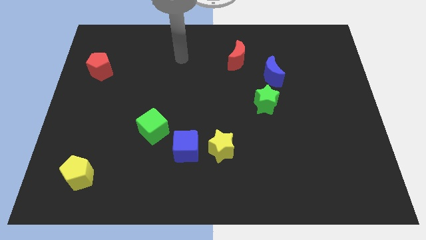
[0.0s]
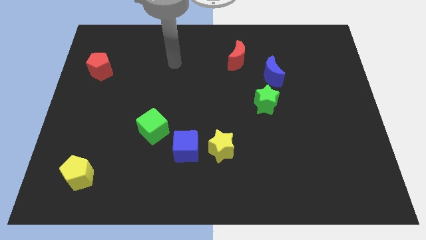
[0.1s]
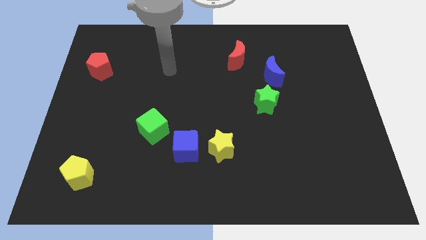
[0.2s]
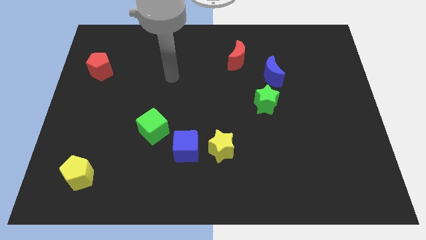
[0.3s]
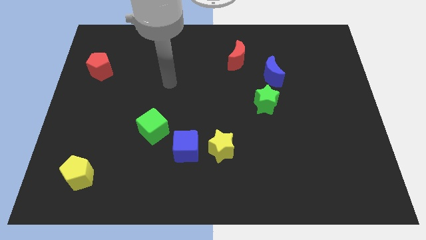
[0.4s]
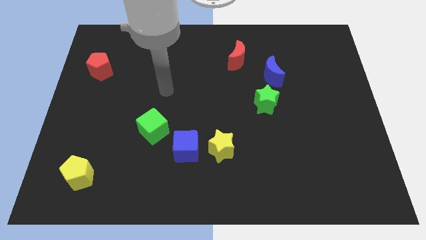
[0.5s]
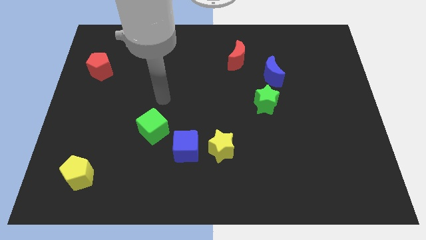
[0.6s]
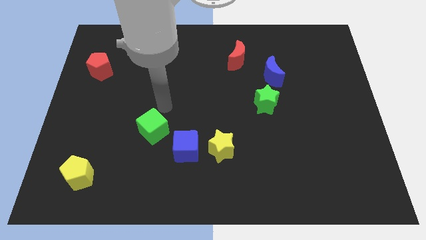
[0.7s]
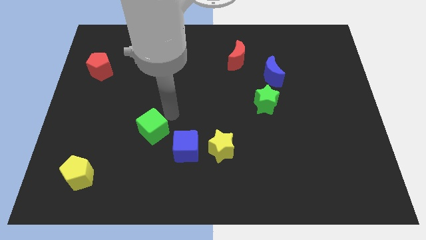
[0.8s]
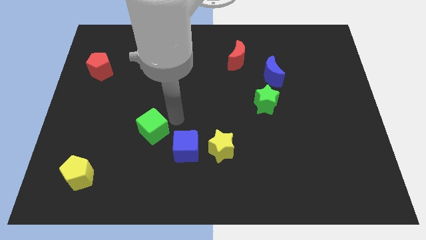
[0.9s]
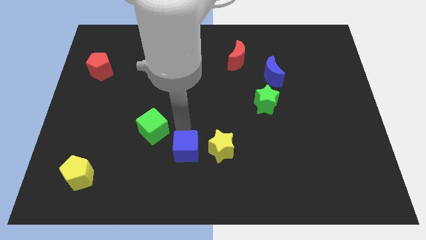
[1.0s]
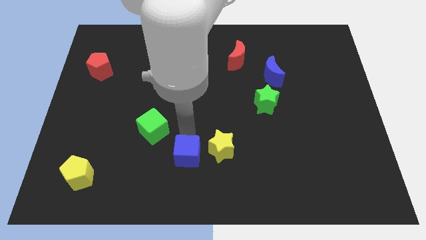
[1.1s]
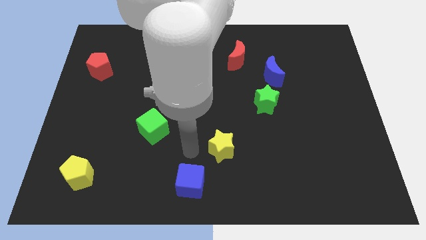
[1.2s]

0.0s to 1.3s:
separate the yellow star from the blue cube

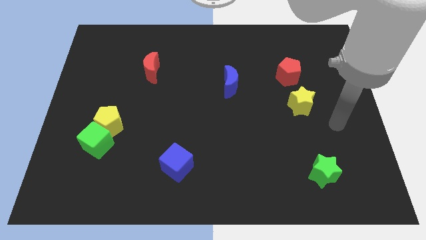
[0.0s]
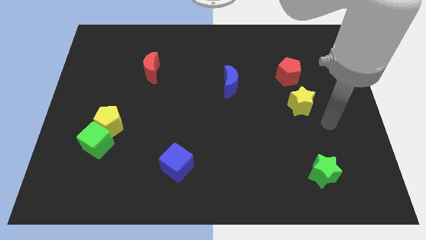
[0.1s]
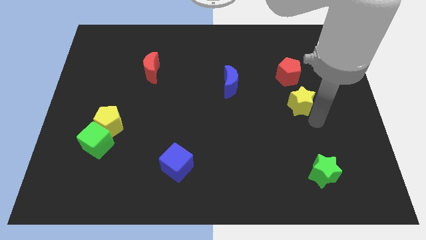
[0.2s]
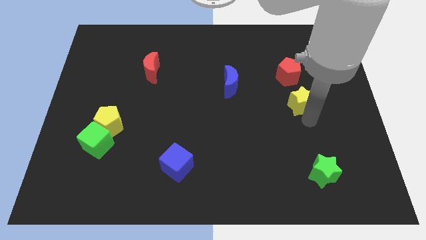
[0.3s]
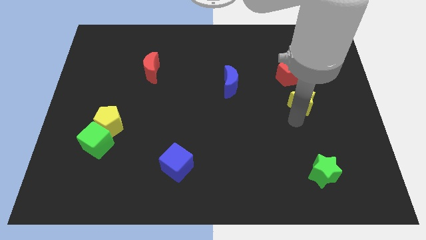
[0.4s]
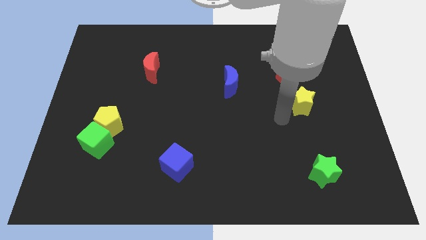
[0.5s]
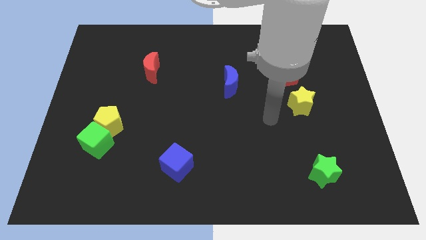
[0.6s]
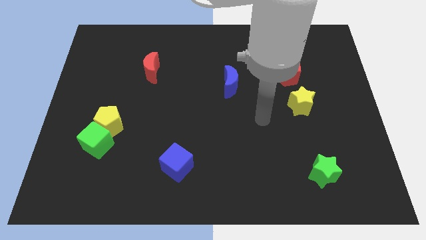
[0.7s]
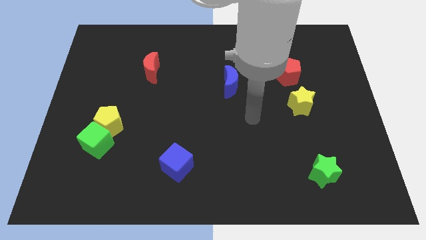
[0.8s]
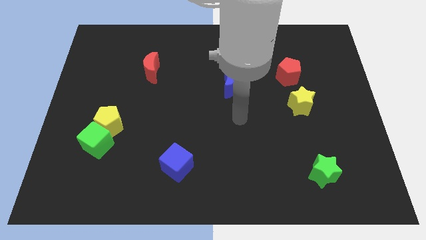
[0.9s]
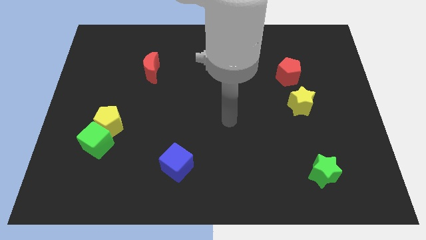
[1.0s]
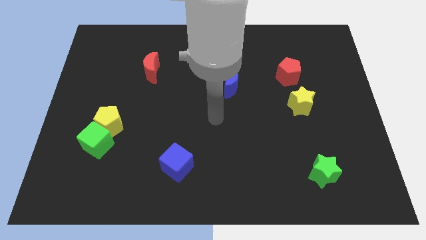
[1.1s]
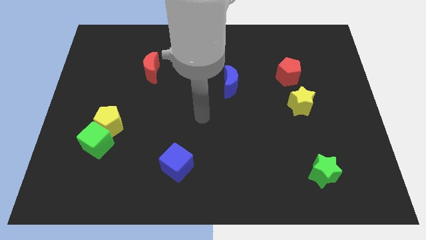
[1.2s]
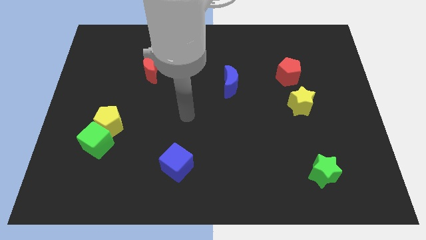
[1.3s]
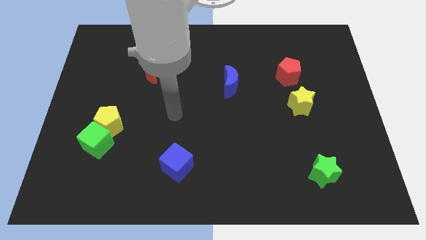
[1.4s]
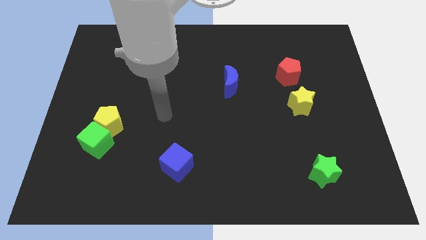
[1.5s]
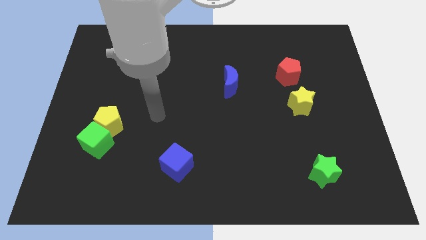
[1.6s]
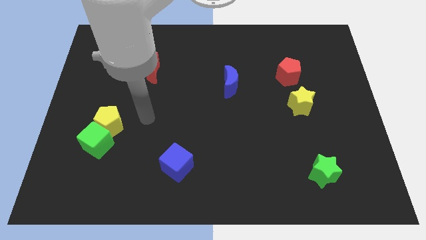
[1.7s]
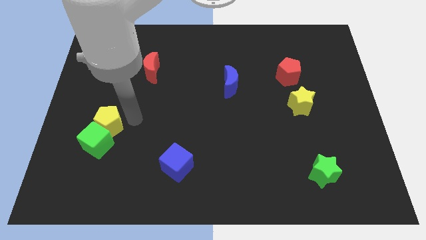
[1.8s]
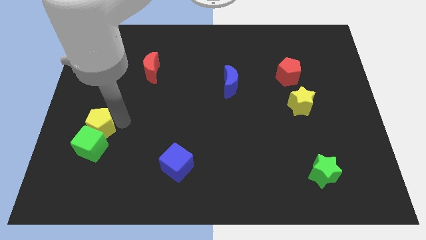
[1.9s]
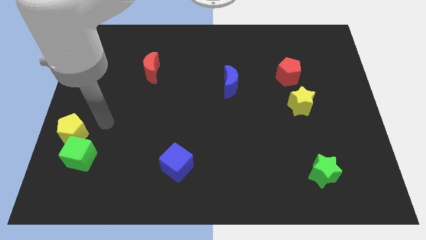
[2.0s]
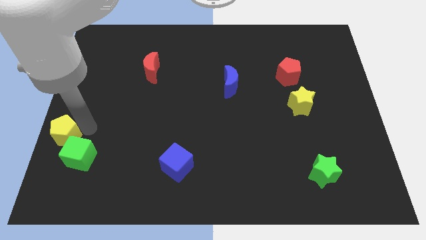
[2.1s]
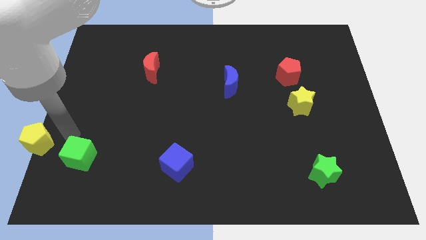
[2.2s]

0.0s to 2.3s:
pull the green cube apart from the yellow pentagon

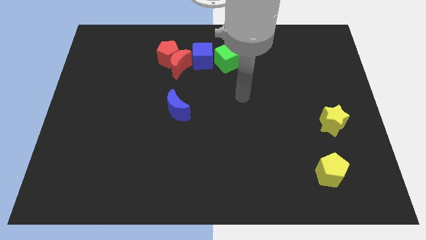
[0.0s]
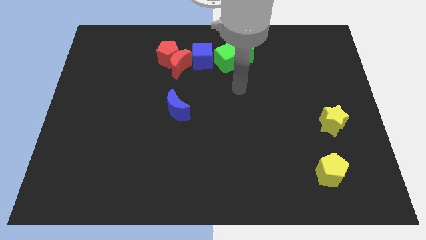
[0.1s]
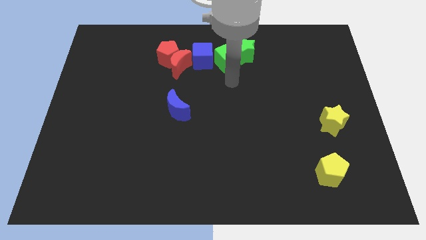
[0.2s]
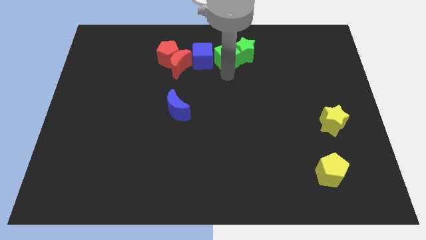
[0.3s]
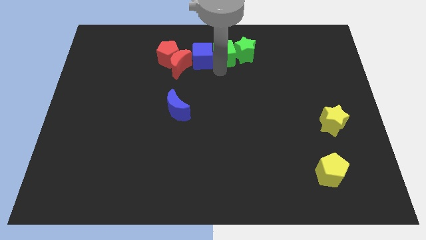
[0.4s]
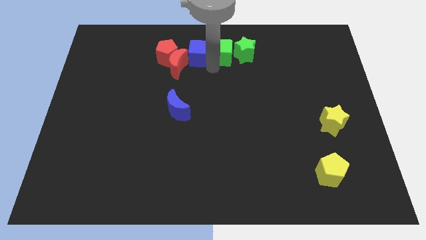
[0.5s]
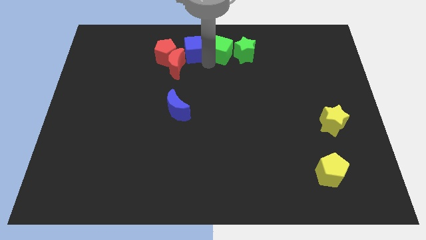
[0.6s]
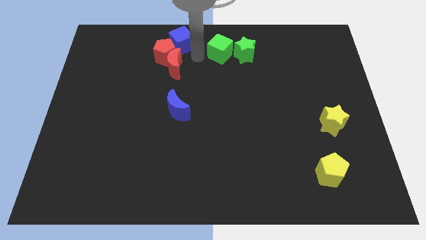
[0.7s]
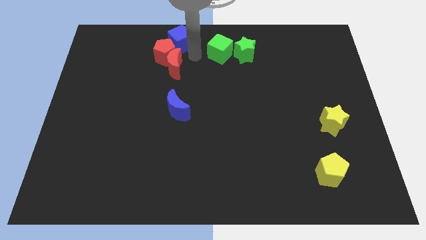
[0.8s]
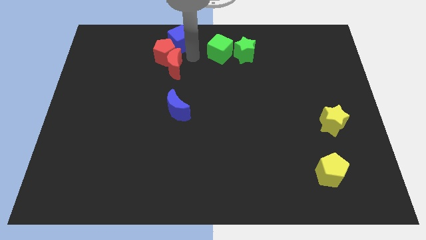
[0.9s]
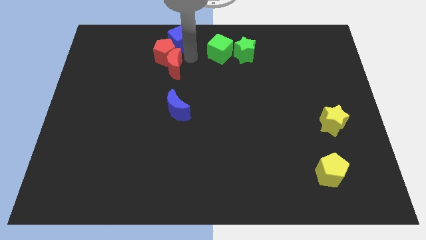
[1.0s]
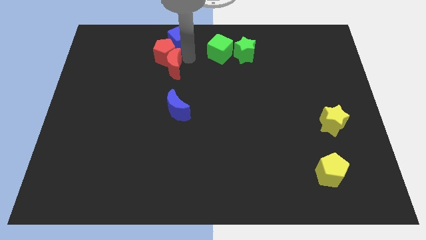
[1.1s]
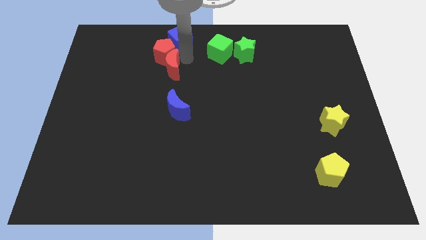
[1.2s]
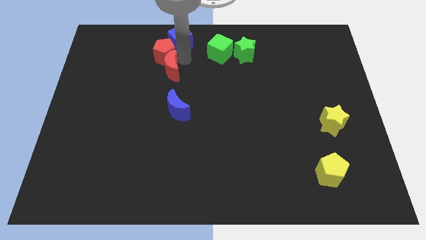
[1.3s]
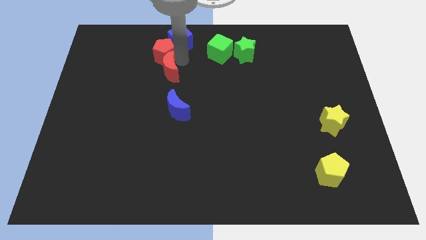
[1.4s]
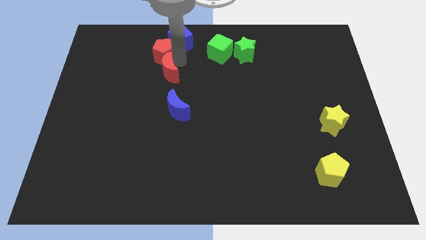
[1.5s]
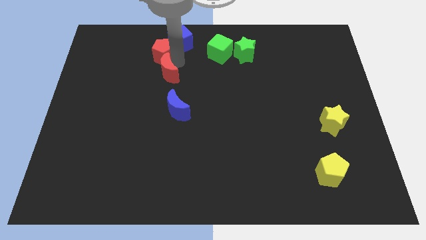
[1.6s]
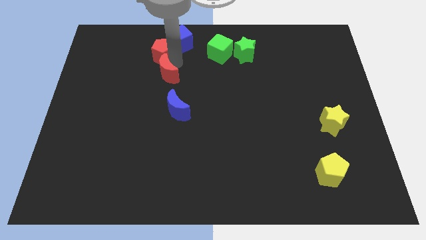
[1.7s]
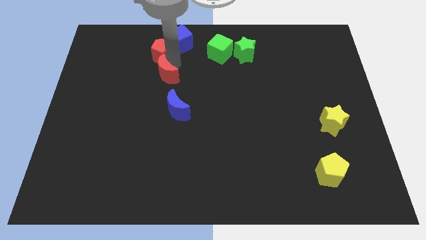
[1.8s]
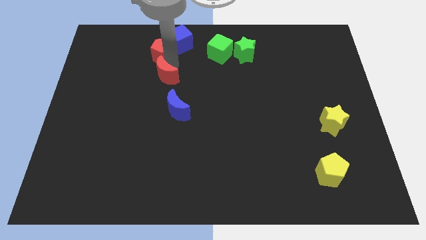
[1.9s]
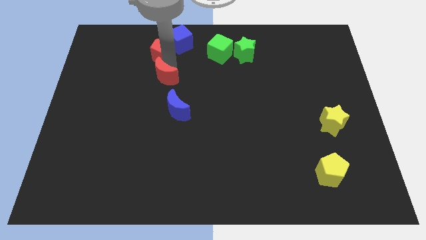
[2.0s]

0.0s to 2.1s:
pull the red moon apart from the red pentagon and blue cube

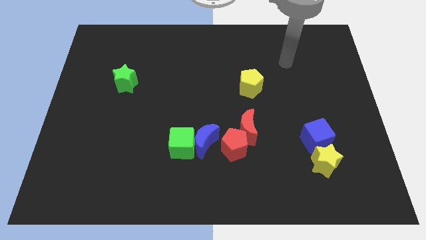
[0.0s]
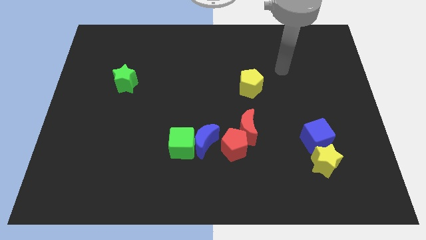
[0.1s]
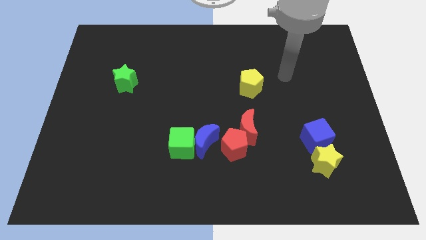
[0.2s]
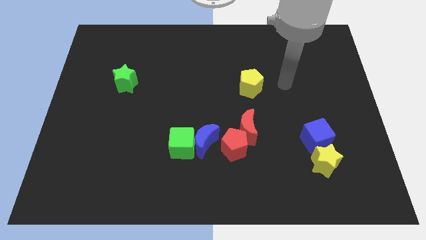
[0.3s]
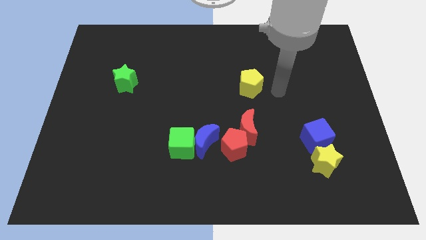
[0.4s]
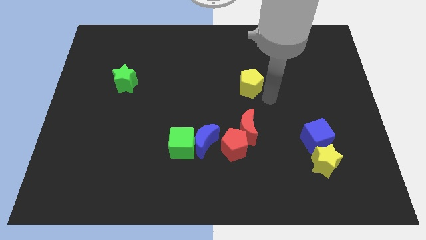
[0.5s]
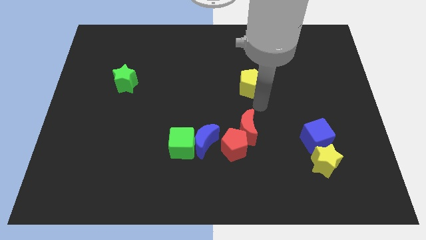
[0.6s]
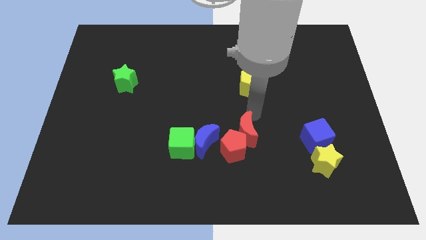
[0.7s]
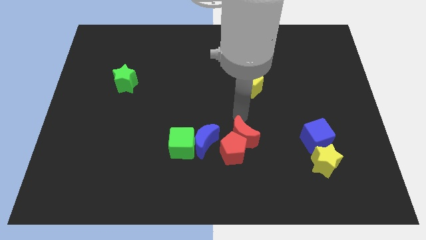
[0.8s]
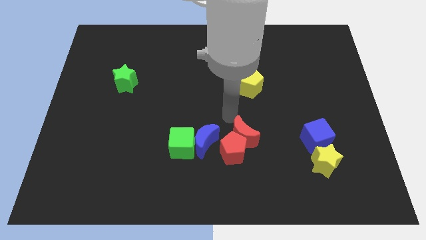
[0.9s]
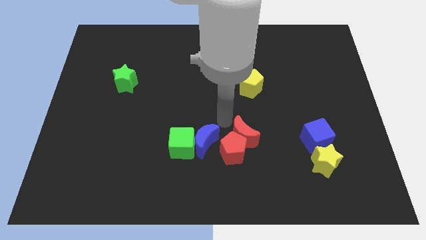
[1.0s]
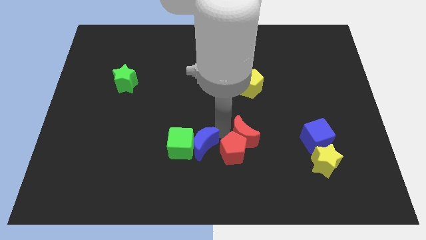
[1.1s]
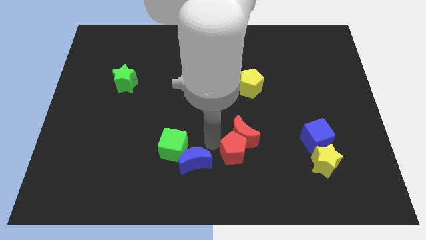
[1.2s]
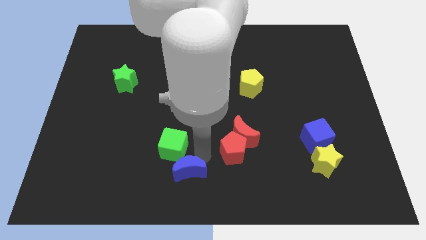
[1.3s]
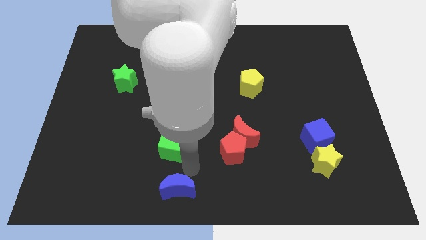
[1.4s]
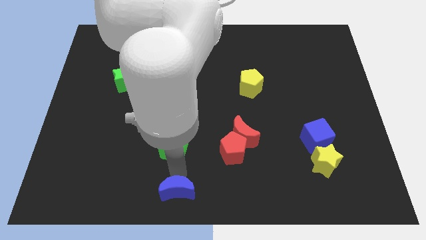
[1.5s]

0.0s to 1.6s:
move the green cube away from the blue moon

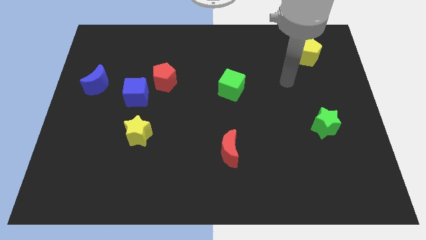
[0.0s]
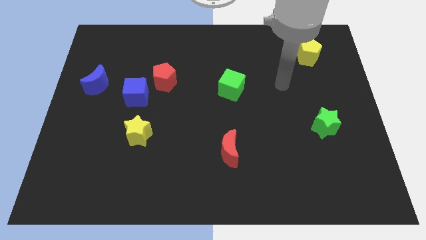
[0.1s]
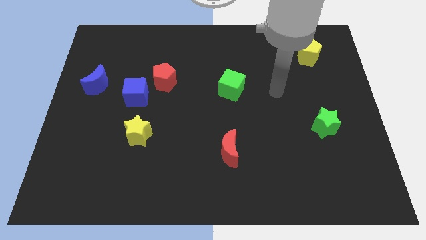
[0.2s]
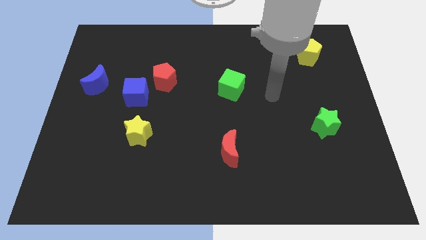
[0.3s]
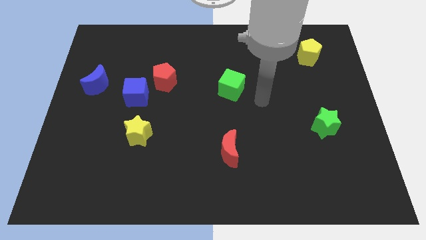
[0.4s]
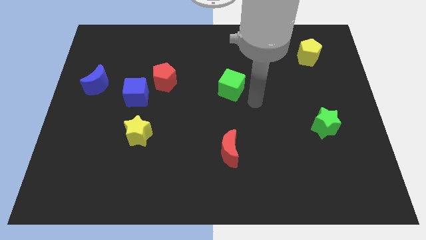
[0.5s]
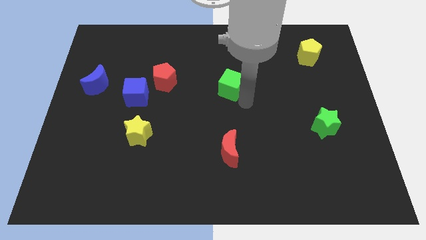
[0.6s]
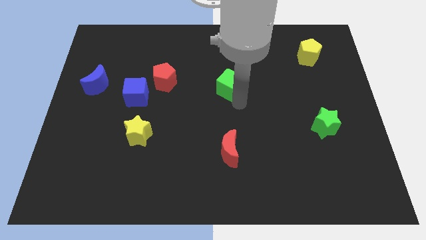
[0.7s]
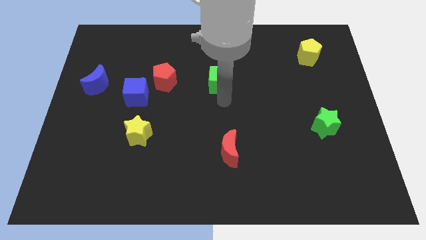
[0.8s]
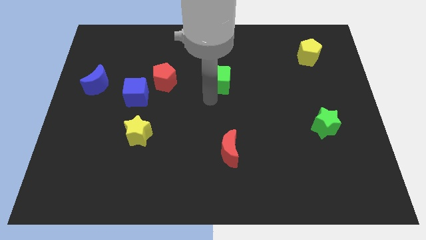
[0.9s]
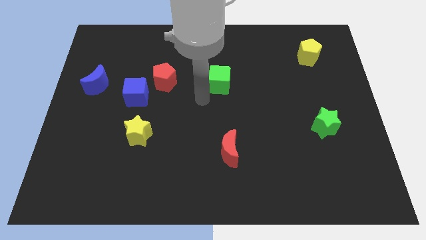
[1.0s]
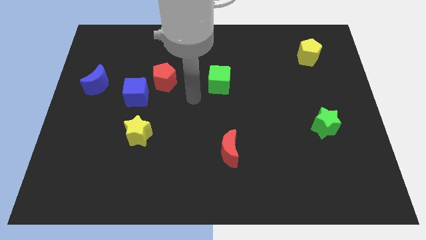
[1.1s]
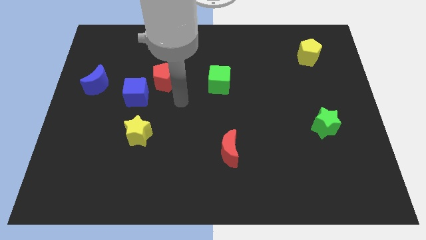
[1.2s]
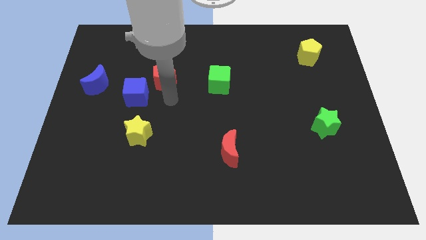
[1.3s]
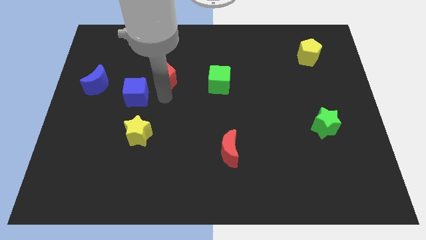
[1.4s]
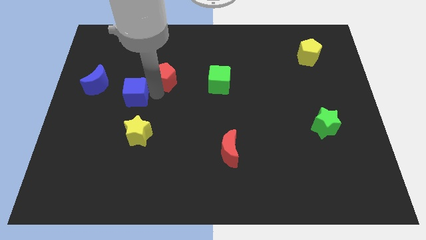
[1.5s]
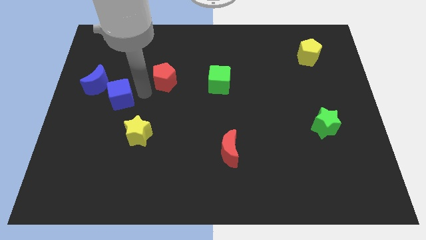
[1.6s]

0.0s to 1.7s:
separate the red pentagon from the blue cube

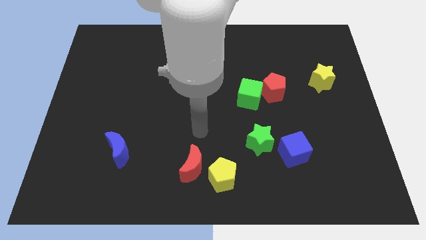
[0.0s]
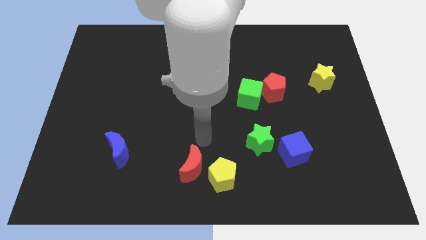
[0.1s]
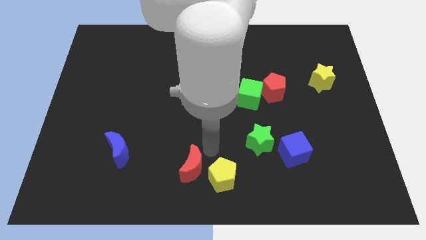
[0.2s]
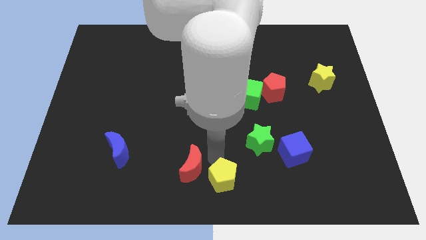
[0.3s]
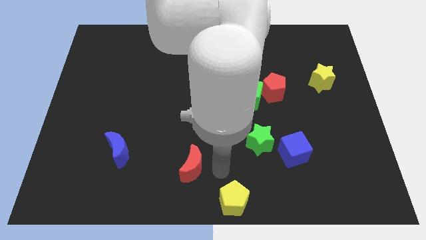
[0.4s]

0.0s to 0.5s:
move the red moon away from the yellow pentagon

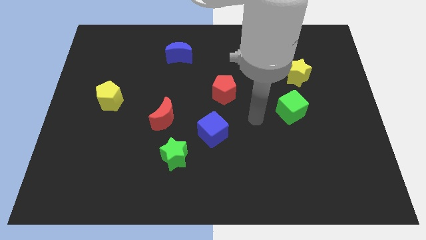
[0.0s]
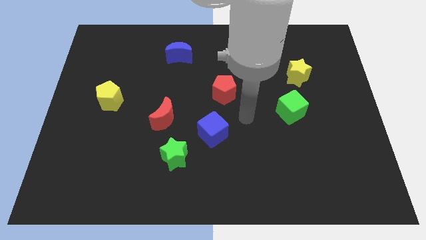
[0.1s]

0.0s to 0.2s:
move the blue cube away from the green star
